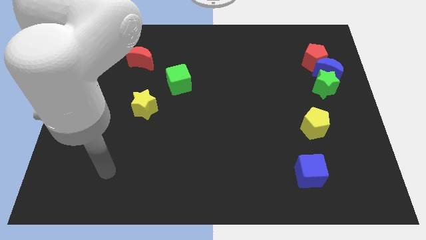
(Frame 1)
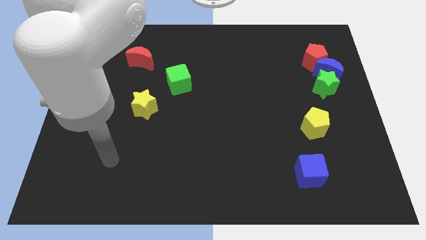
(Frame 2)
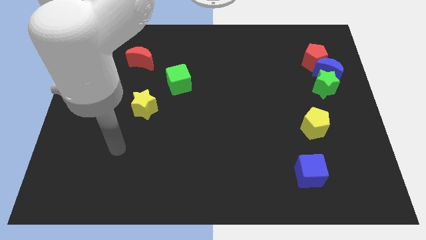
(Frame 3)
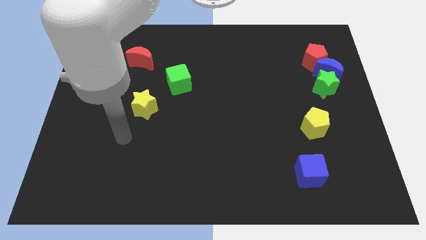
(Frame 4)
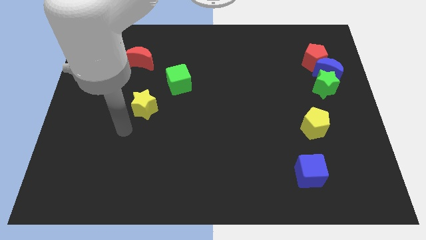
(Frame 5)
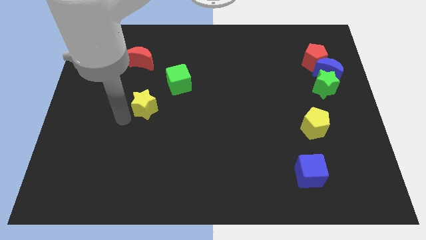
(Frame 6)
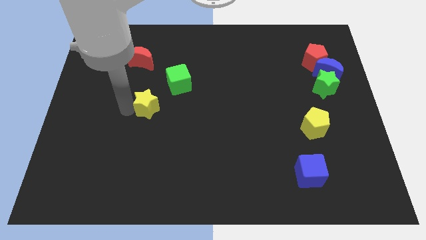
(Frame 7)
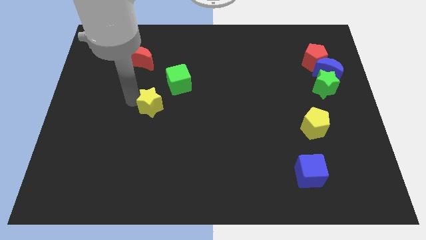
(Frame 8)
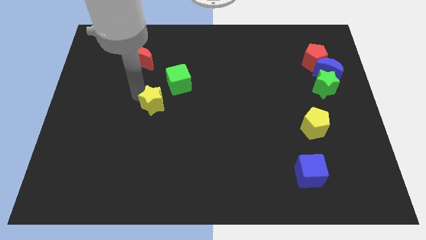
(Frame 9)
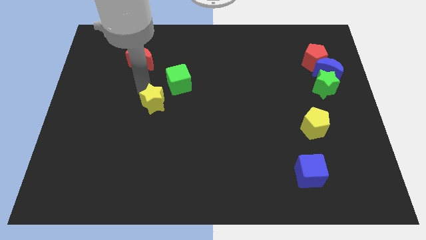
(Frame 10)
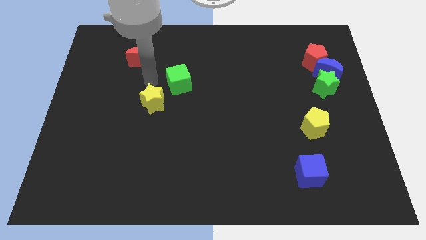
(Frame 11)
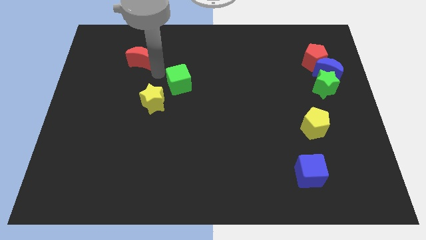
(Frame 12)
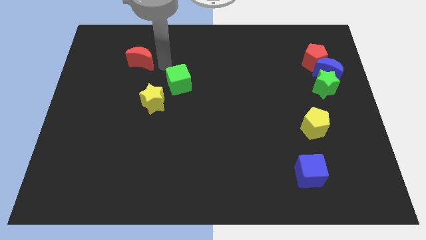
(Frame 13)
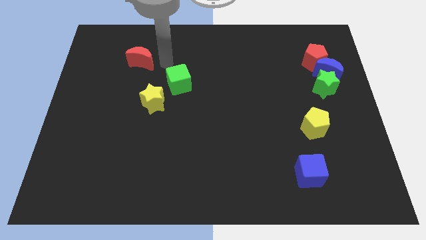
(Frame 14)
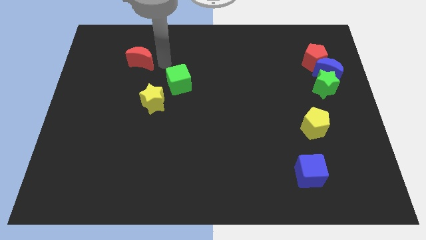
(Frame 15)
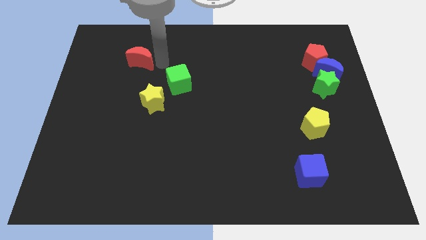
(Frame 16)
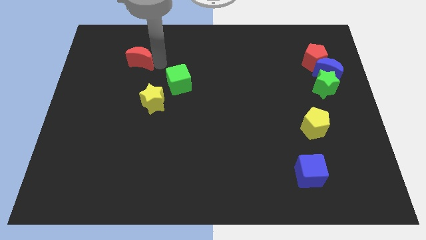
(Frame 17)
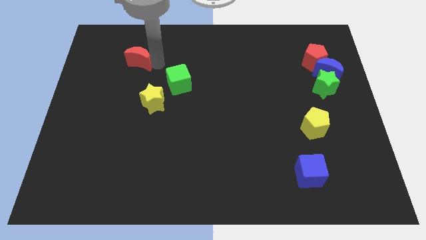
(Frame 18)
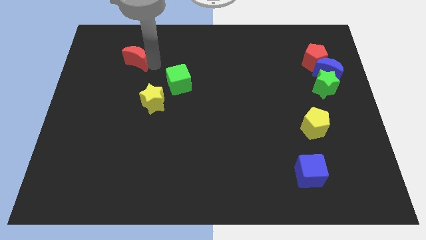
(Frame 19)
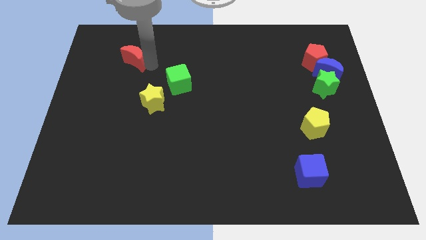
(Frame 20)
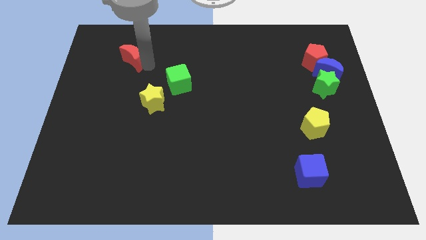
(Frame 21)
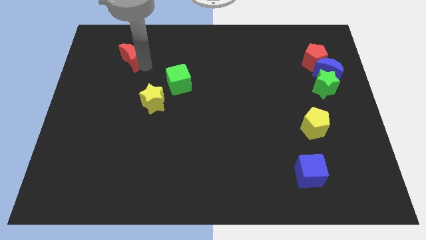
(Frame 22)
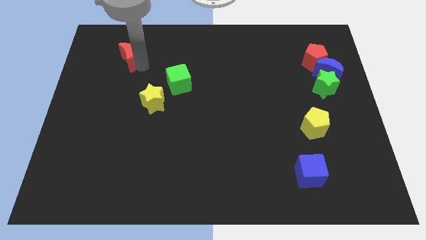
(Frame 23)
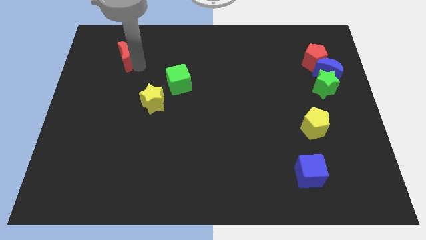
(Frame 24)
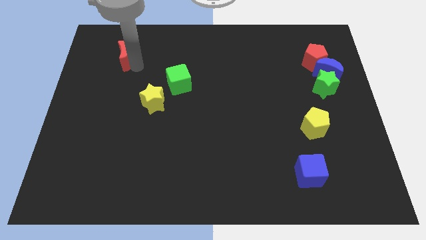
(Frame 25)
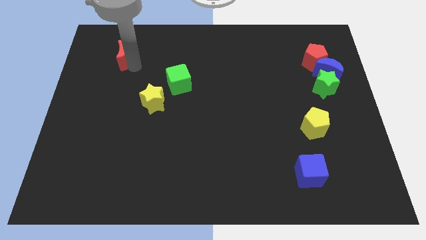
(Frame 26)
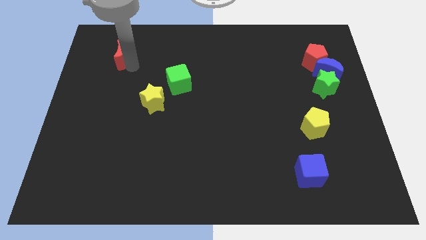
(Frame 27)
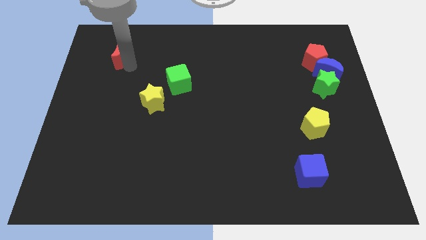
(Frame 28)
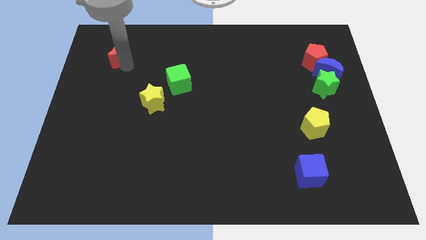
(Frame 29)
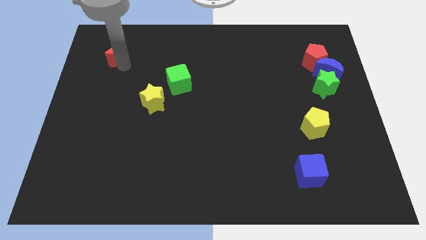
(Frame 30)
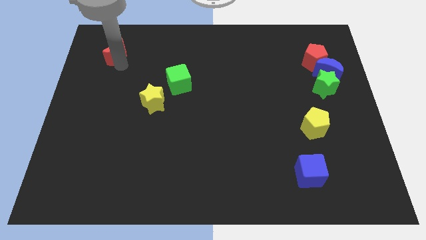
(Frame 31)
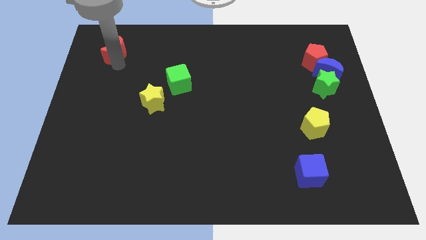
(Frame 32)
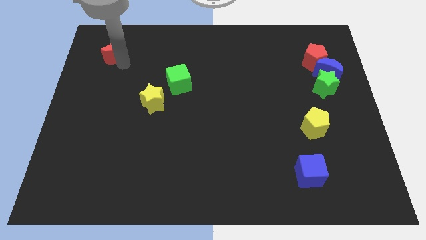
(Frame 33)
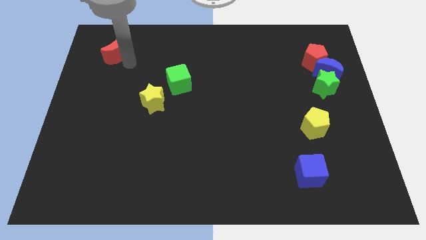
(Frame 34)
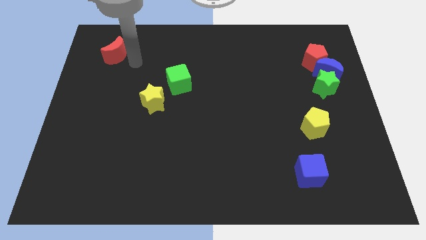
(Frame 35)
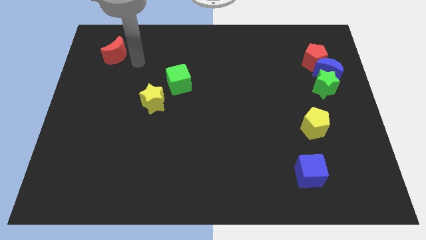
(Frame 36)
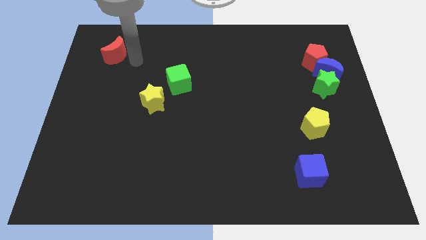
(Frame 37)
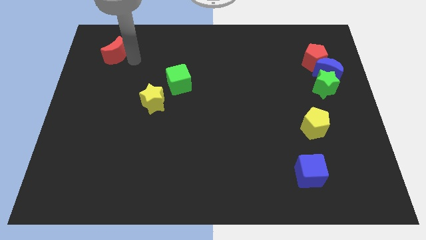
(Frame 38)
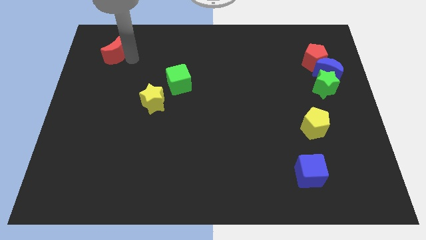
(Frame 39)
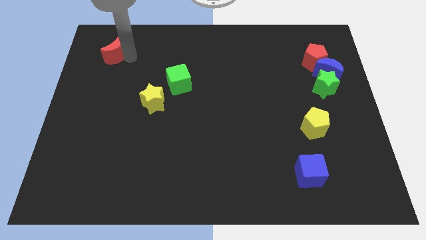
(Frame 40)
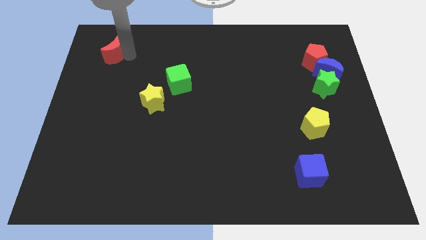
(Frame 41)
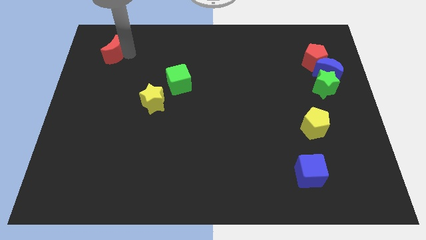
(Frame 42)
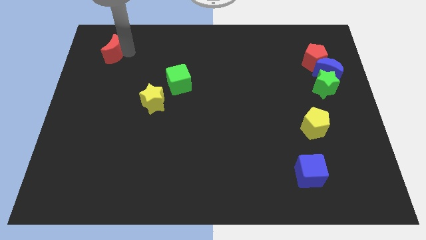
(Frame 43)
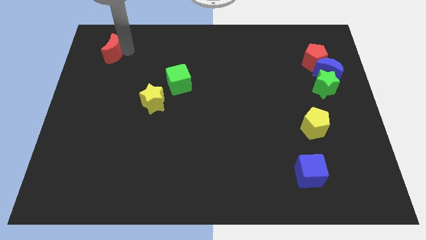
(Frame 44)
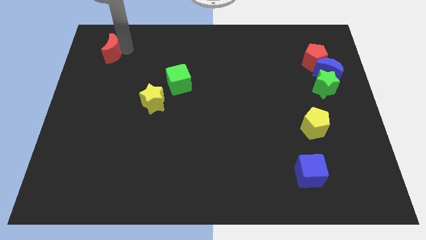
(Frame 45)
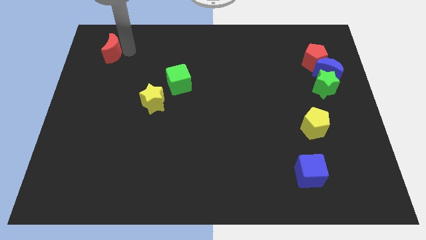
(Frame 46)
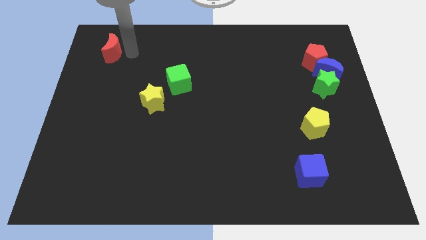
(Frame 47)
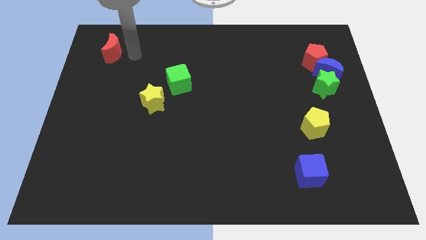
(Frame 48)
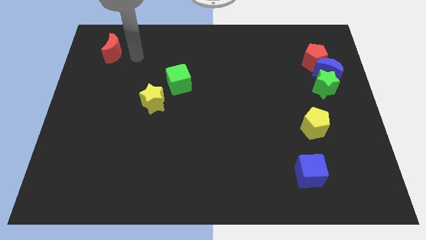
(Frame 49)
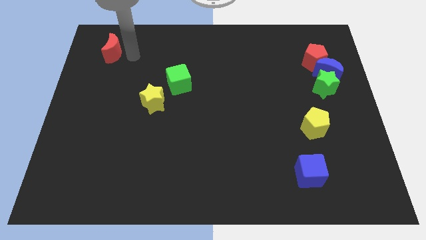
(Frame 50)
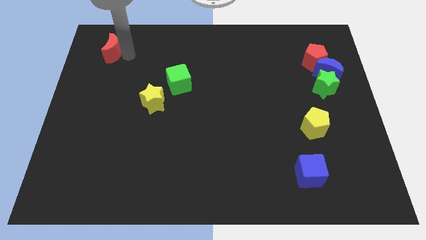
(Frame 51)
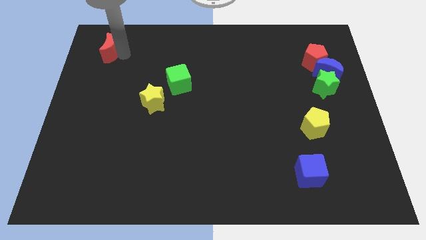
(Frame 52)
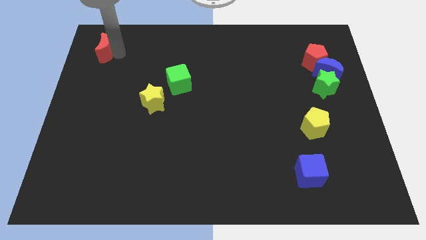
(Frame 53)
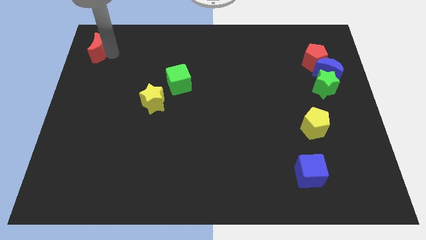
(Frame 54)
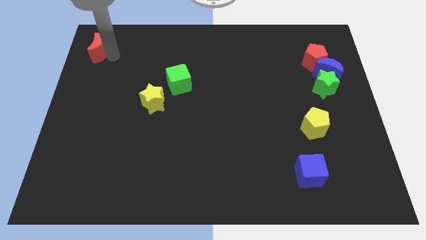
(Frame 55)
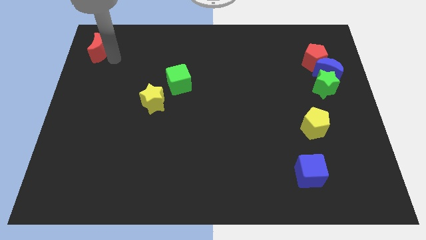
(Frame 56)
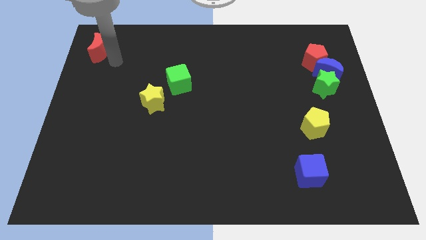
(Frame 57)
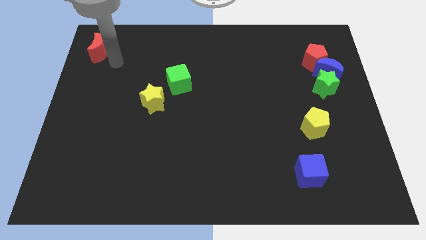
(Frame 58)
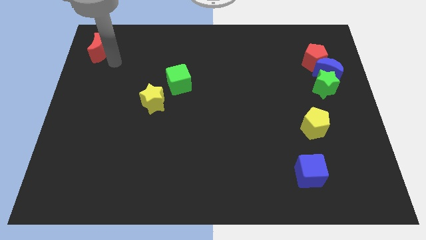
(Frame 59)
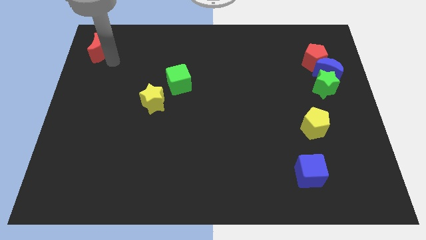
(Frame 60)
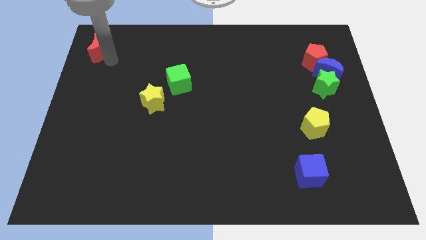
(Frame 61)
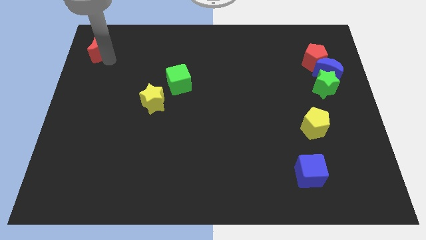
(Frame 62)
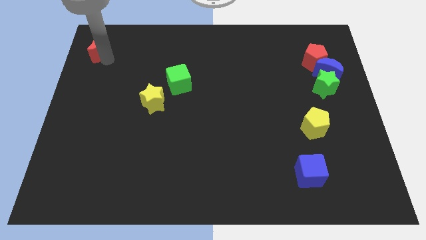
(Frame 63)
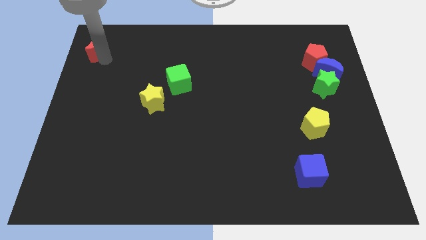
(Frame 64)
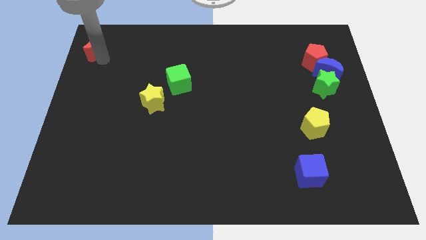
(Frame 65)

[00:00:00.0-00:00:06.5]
move the red moon to the top left
